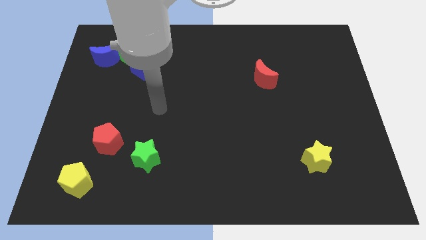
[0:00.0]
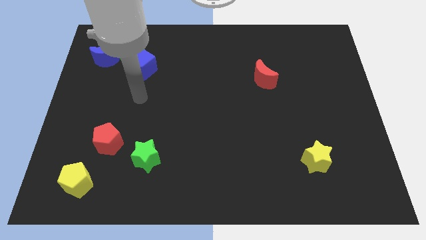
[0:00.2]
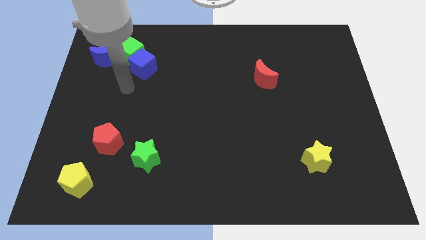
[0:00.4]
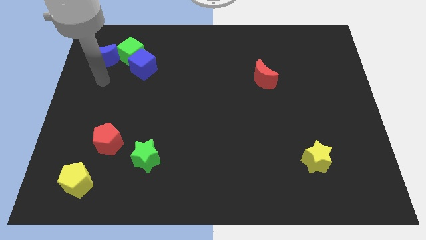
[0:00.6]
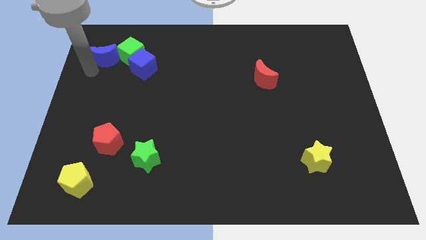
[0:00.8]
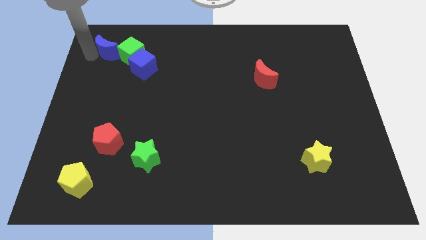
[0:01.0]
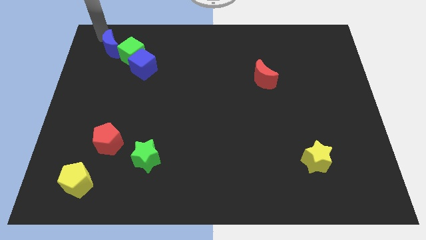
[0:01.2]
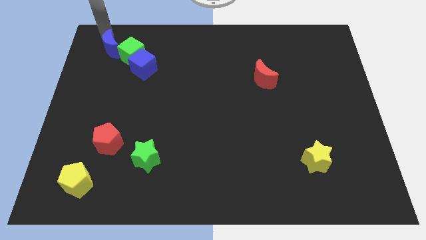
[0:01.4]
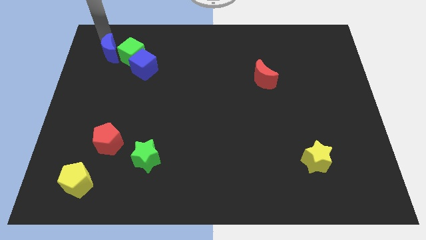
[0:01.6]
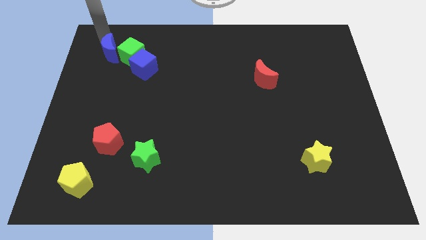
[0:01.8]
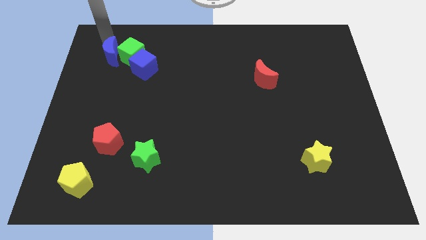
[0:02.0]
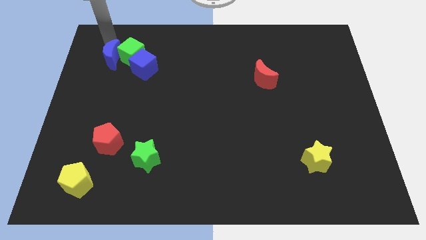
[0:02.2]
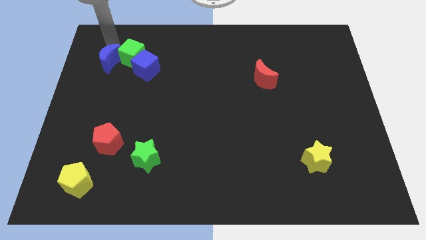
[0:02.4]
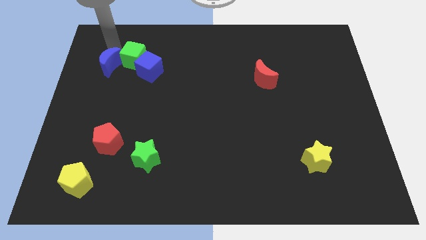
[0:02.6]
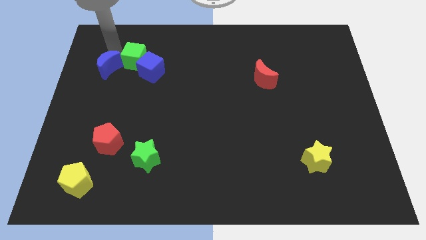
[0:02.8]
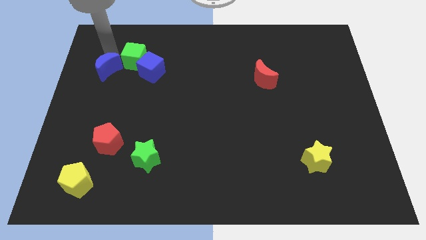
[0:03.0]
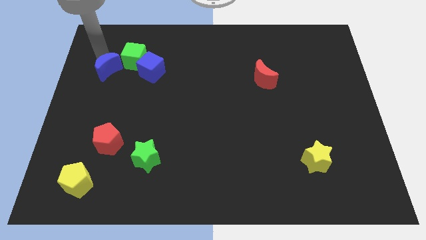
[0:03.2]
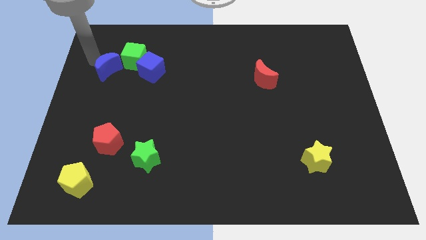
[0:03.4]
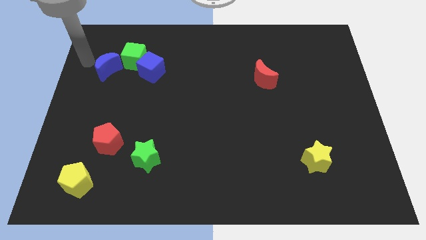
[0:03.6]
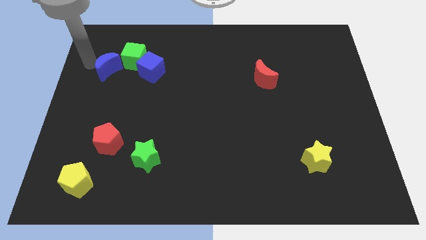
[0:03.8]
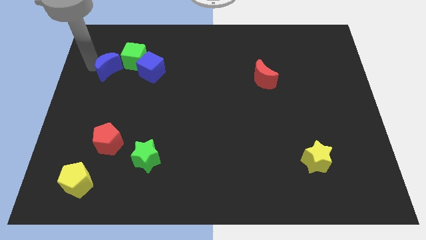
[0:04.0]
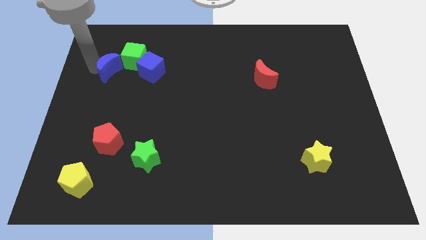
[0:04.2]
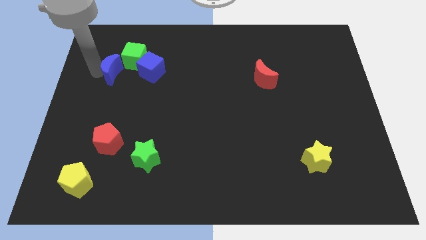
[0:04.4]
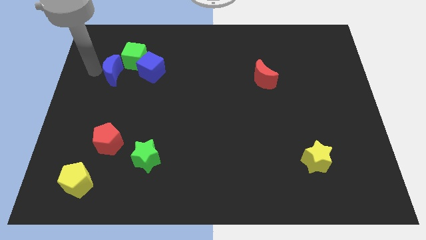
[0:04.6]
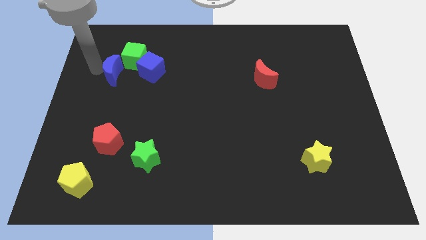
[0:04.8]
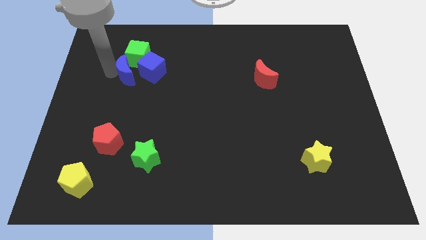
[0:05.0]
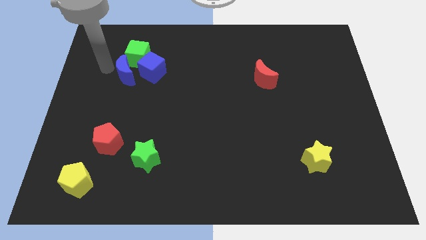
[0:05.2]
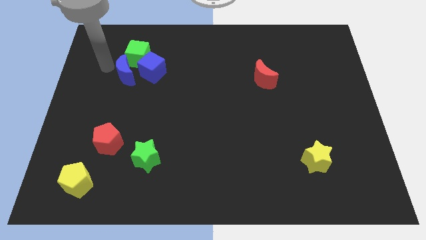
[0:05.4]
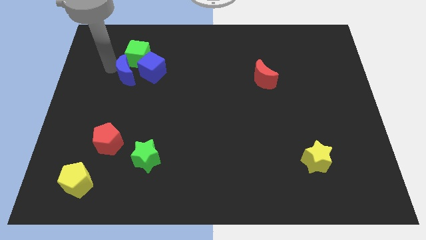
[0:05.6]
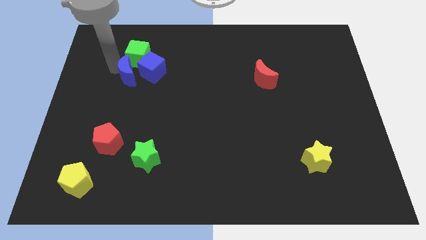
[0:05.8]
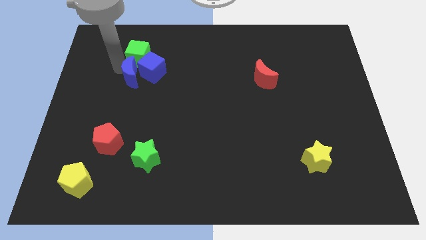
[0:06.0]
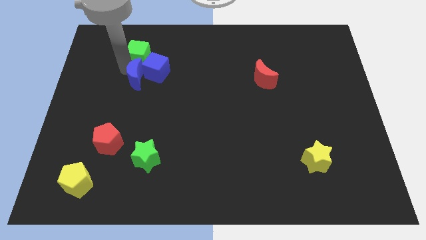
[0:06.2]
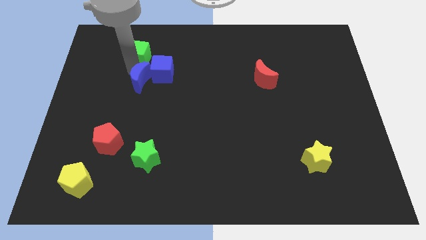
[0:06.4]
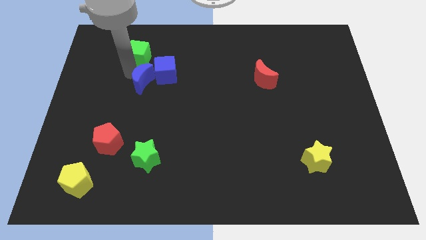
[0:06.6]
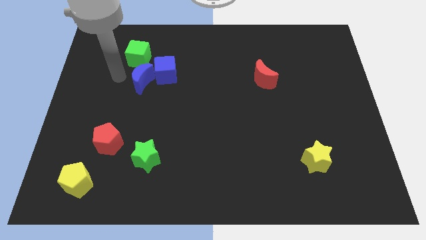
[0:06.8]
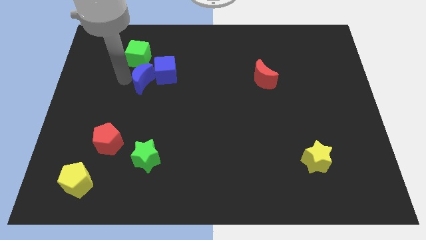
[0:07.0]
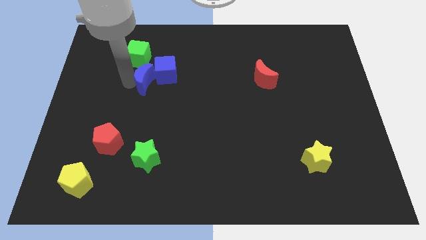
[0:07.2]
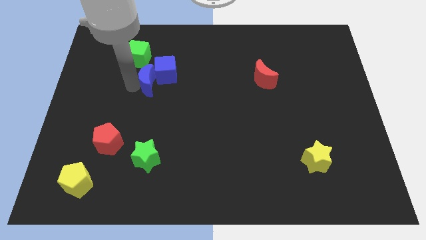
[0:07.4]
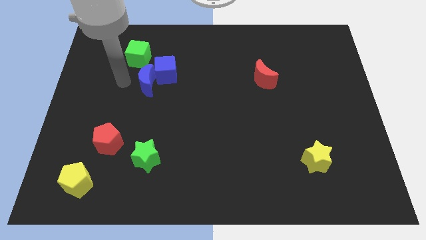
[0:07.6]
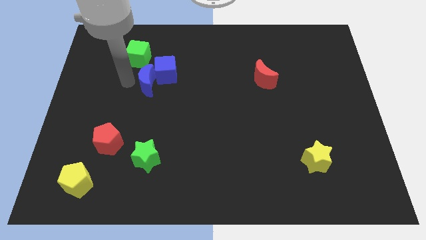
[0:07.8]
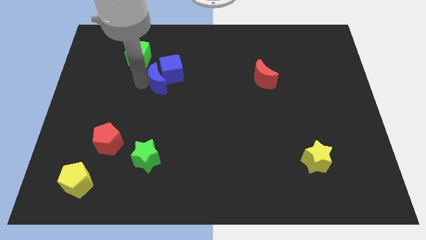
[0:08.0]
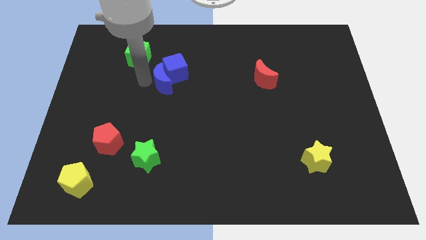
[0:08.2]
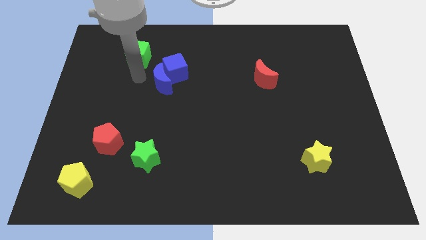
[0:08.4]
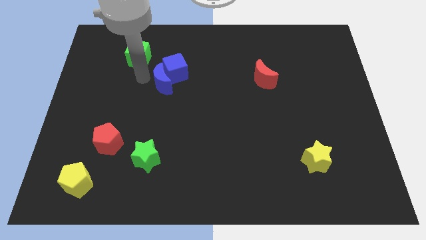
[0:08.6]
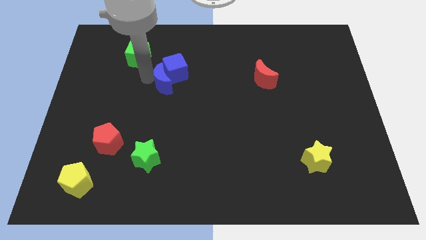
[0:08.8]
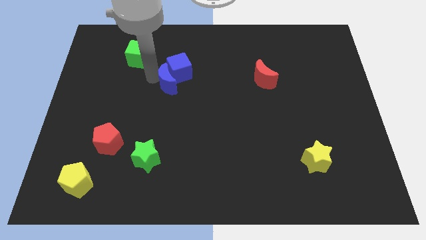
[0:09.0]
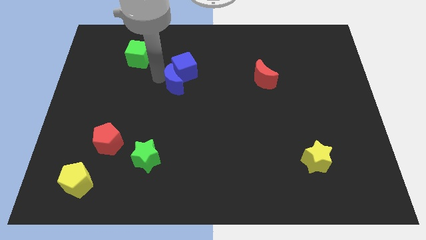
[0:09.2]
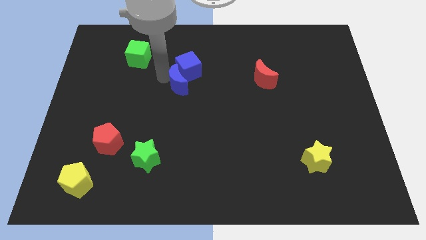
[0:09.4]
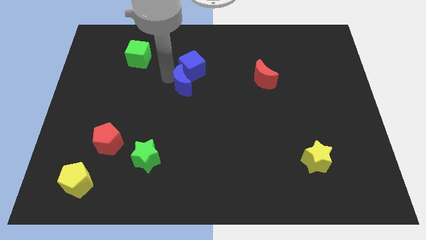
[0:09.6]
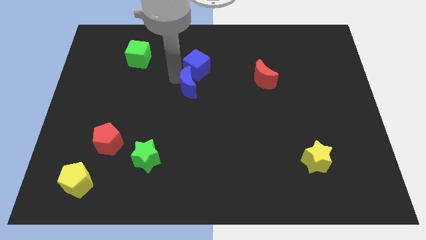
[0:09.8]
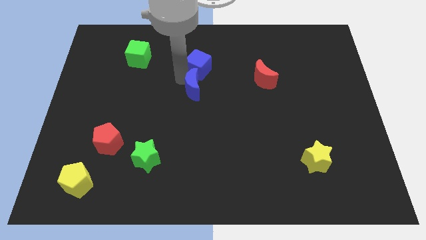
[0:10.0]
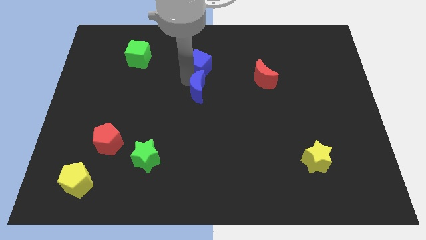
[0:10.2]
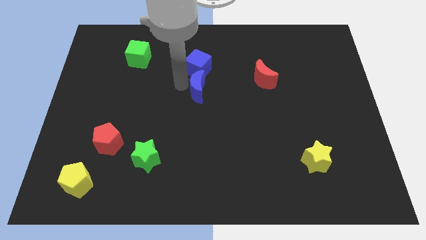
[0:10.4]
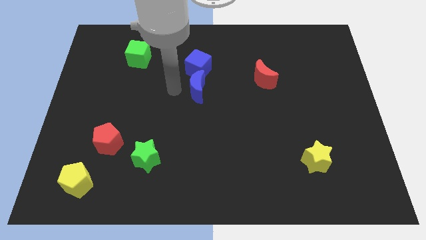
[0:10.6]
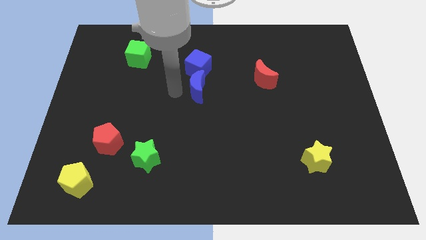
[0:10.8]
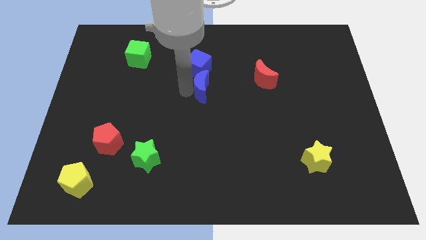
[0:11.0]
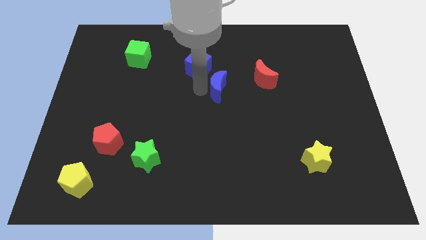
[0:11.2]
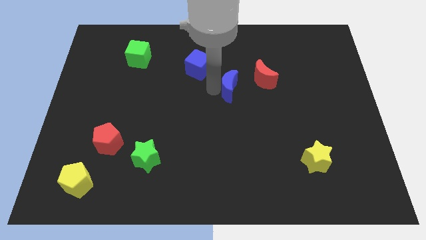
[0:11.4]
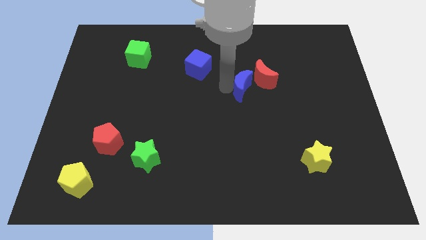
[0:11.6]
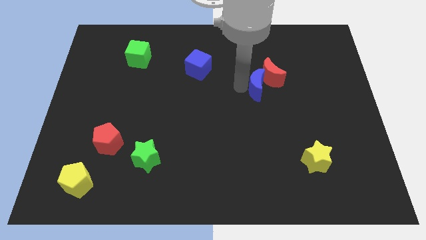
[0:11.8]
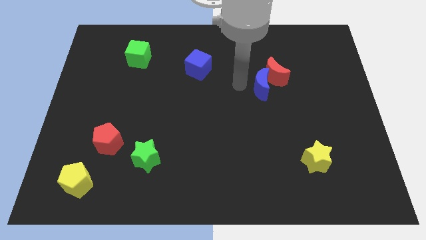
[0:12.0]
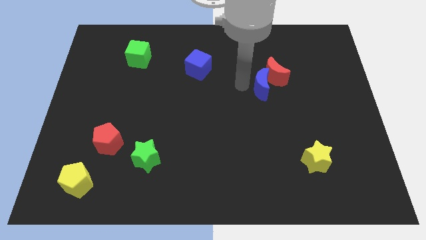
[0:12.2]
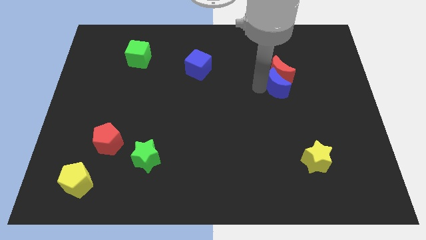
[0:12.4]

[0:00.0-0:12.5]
push the blue moon diagonally down and to the right of the red moon

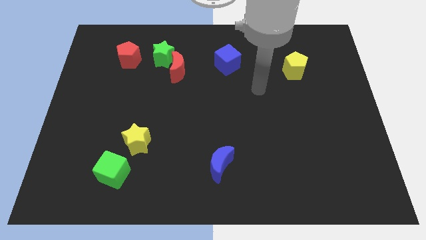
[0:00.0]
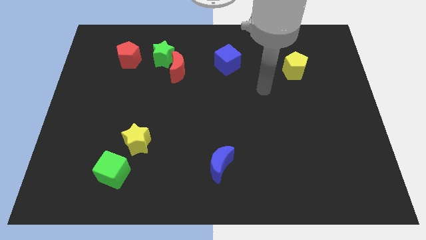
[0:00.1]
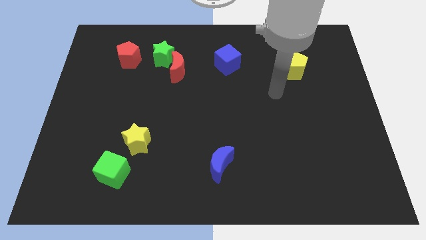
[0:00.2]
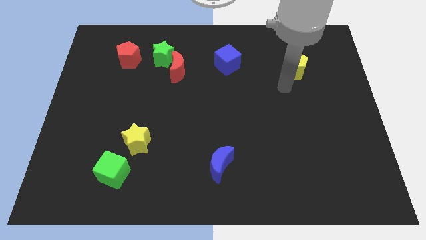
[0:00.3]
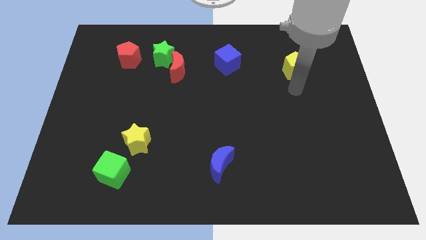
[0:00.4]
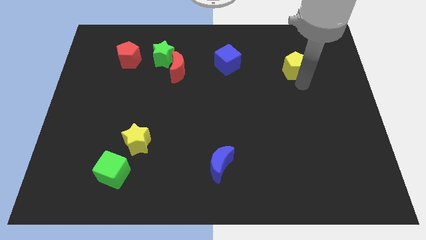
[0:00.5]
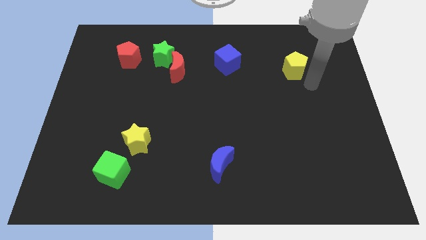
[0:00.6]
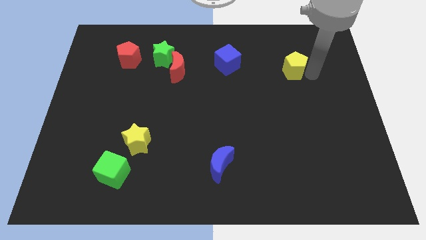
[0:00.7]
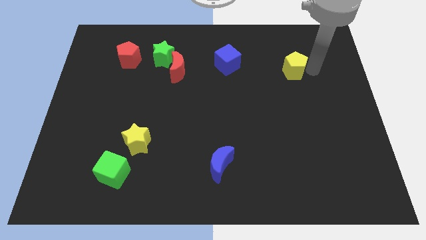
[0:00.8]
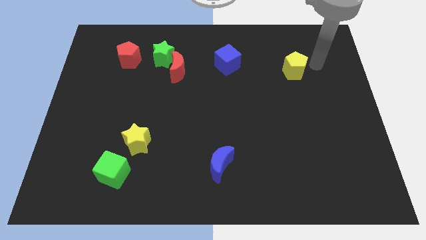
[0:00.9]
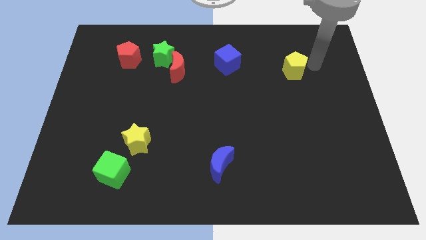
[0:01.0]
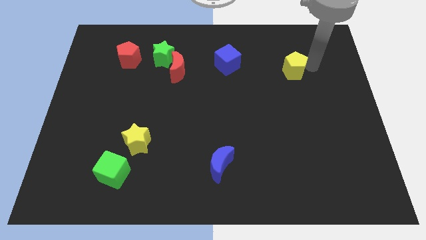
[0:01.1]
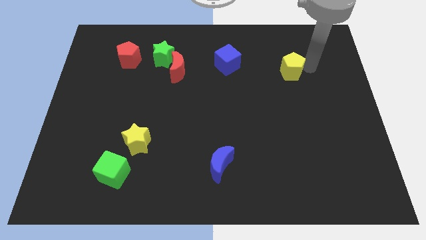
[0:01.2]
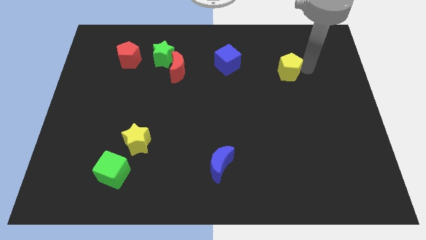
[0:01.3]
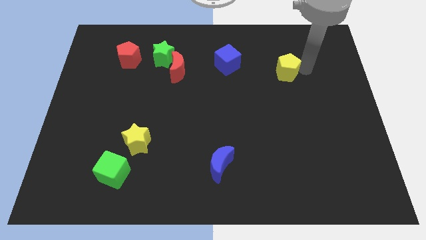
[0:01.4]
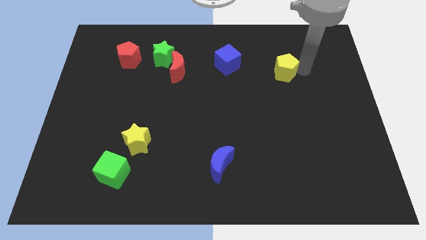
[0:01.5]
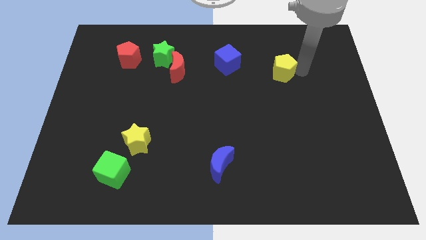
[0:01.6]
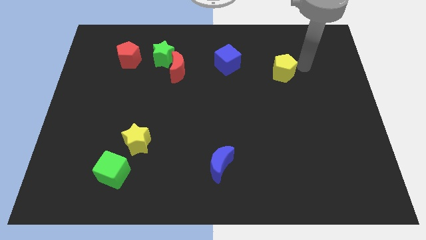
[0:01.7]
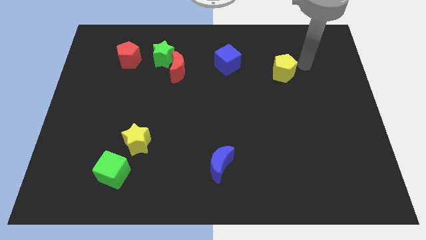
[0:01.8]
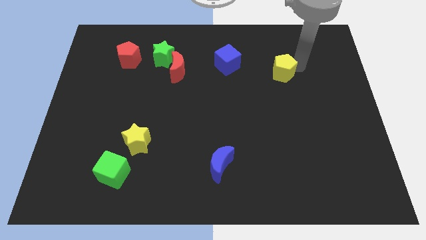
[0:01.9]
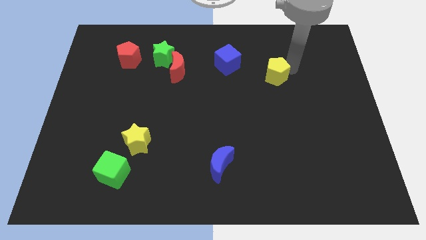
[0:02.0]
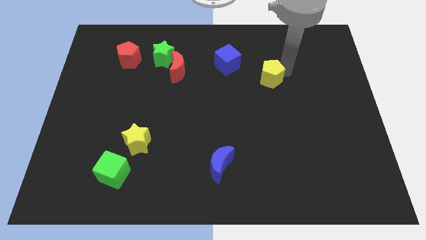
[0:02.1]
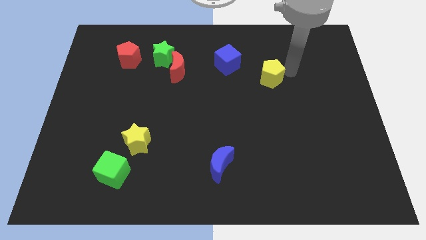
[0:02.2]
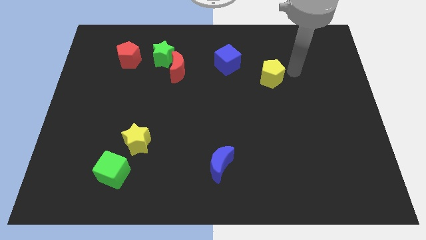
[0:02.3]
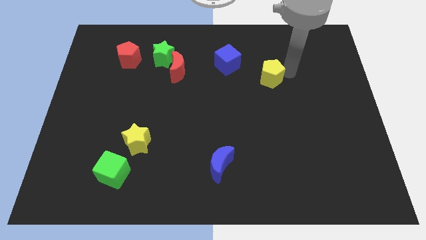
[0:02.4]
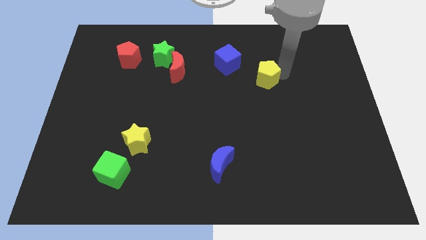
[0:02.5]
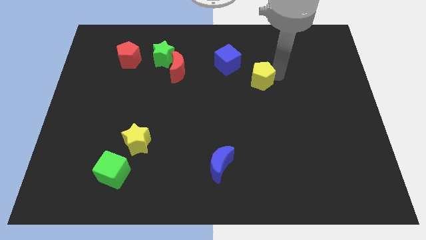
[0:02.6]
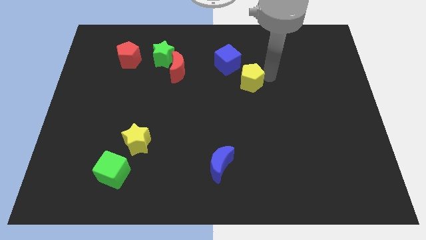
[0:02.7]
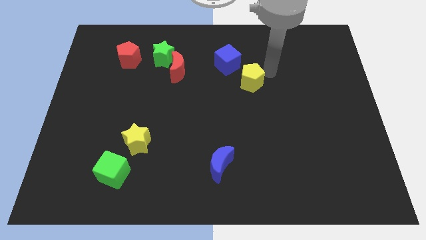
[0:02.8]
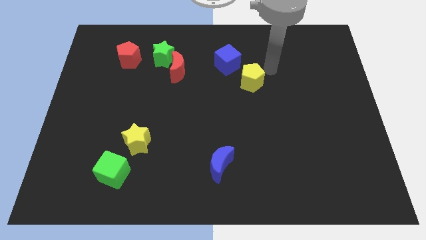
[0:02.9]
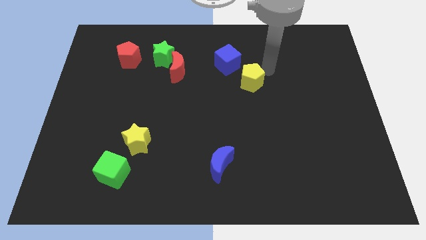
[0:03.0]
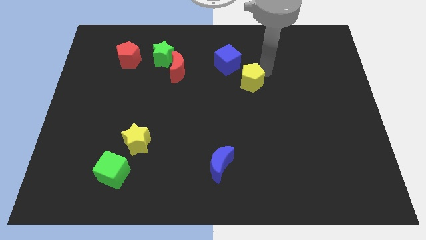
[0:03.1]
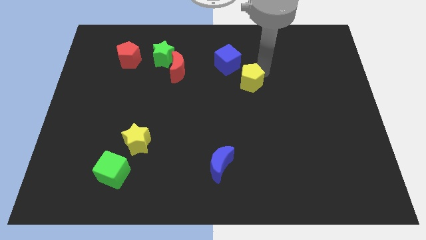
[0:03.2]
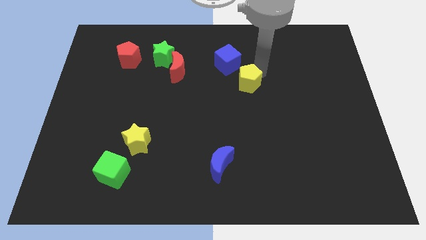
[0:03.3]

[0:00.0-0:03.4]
push the yellow pentagon to the bottom side of the blue cube
